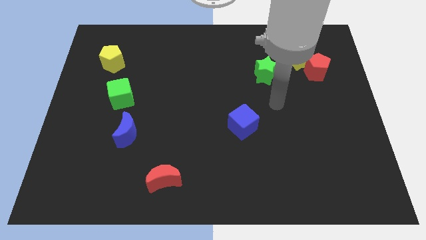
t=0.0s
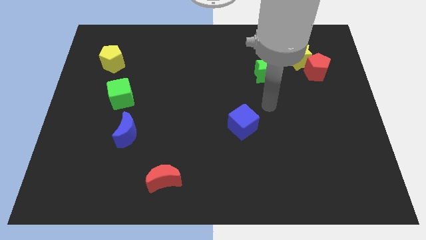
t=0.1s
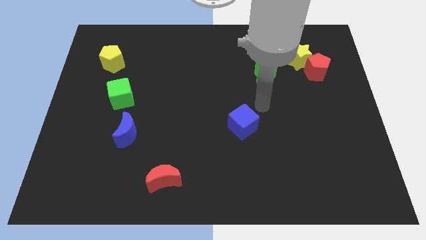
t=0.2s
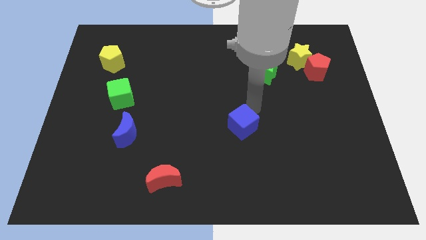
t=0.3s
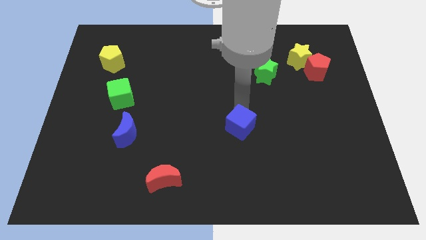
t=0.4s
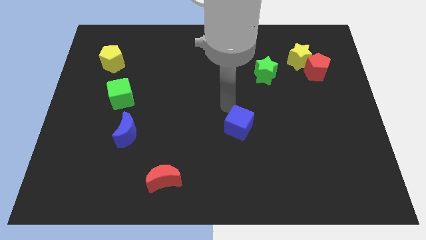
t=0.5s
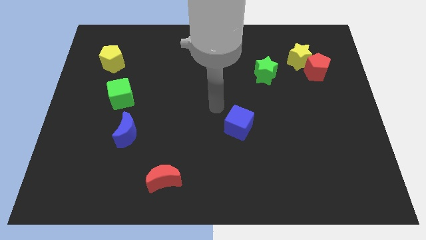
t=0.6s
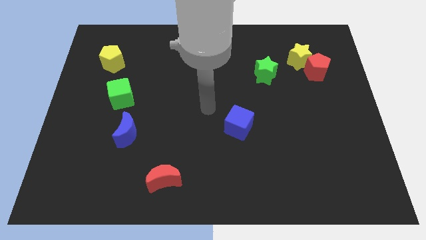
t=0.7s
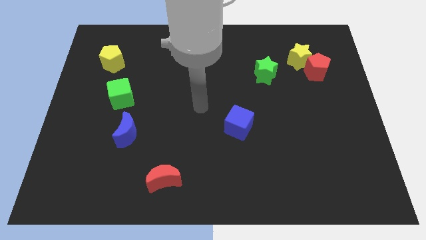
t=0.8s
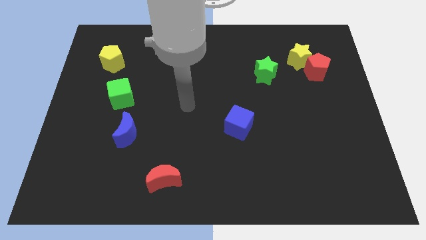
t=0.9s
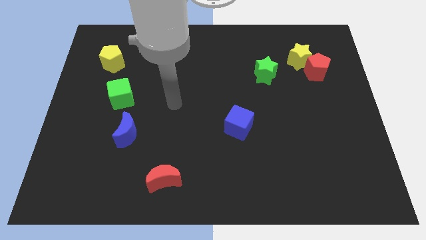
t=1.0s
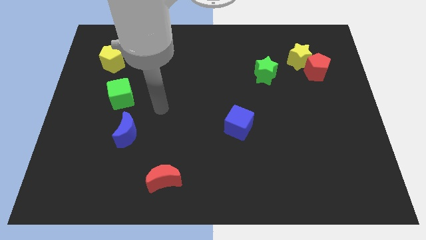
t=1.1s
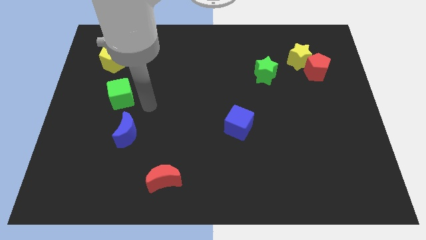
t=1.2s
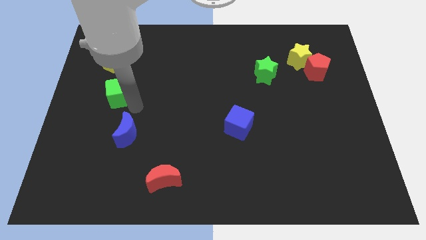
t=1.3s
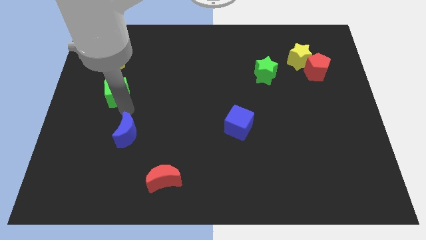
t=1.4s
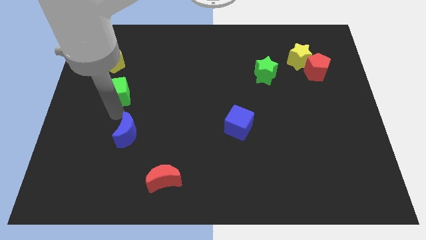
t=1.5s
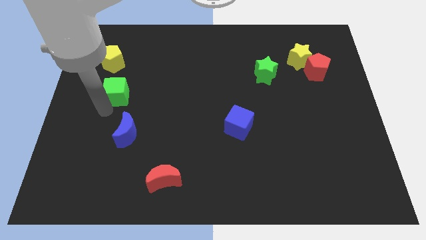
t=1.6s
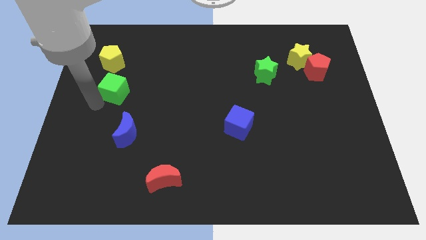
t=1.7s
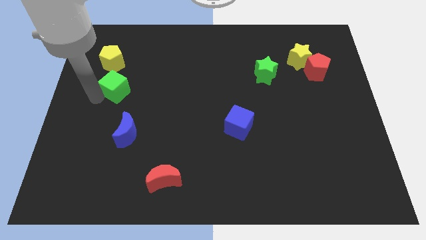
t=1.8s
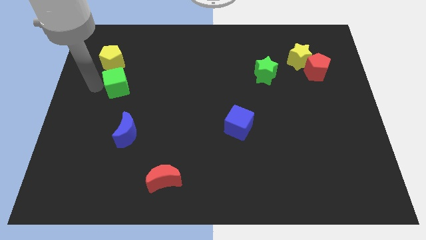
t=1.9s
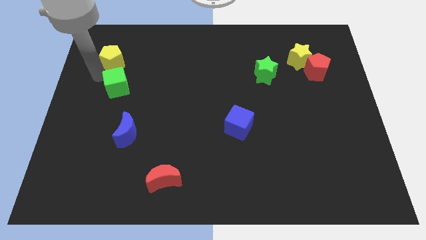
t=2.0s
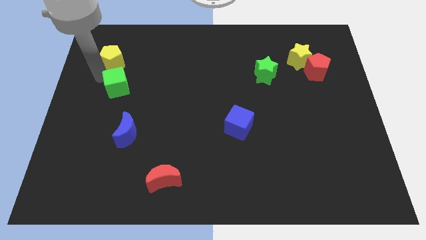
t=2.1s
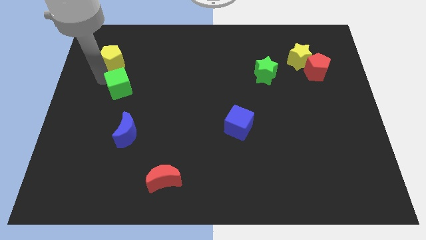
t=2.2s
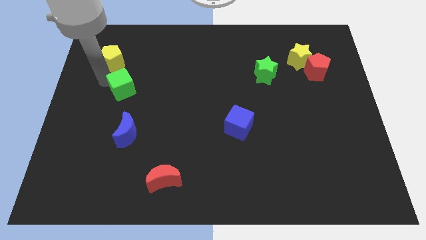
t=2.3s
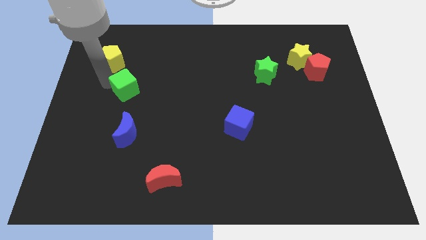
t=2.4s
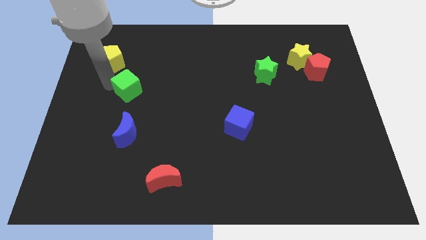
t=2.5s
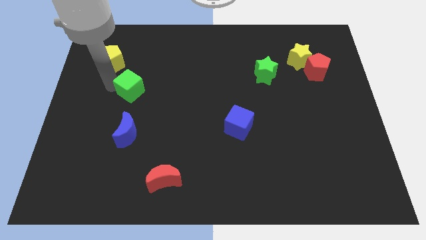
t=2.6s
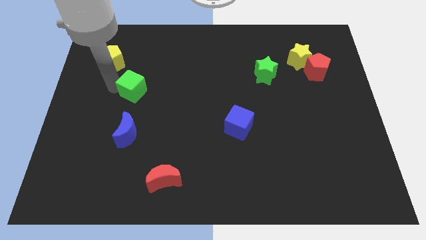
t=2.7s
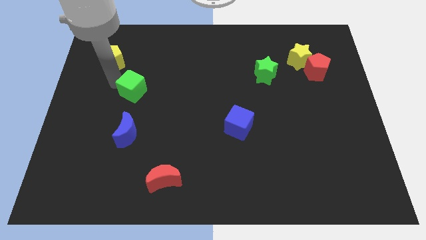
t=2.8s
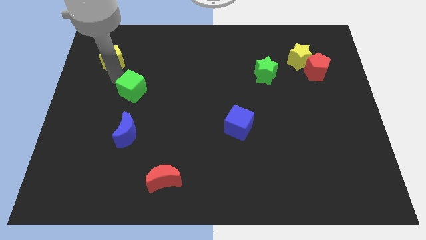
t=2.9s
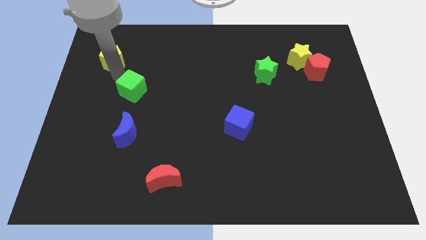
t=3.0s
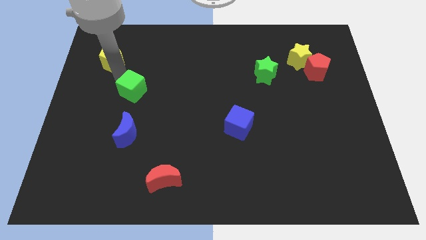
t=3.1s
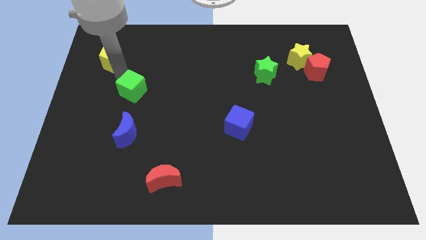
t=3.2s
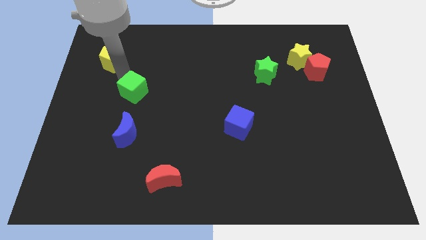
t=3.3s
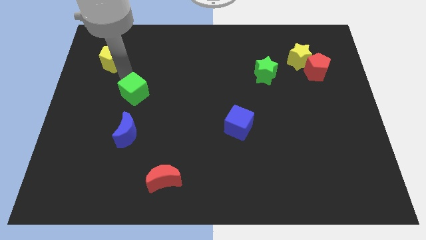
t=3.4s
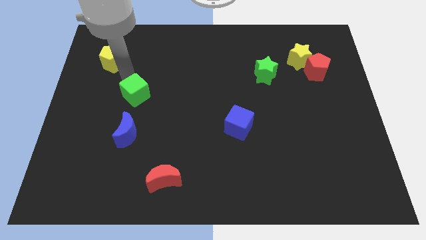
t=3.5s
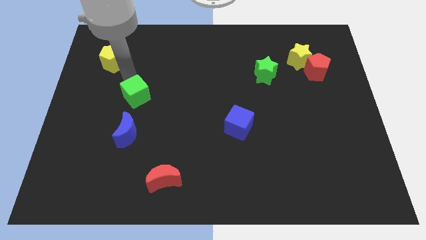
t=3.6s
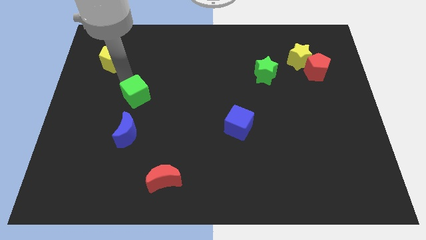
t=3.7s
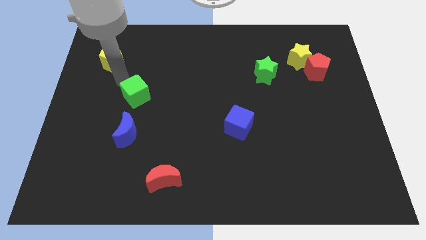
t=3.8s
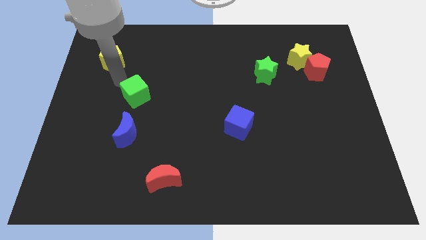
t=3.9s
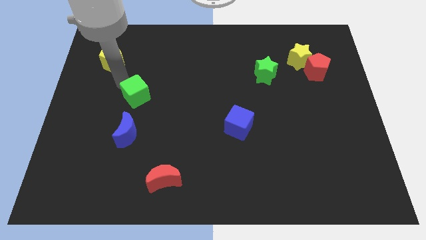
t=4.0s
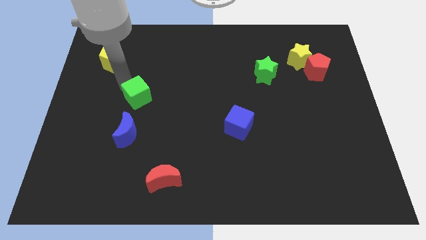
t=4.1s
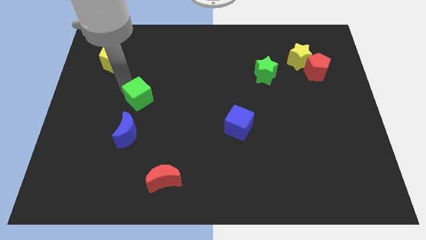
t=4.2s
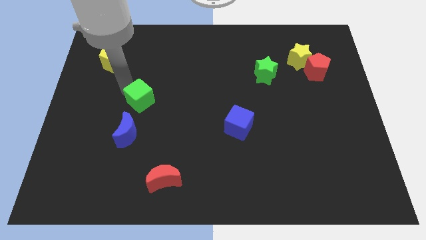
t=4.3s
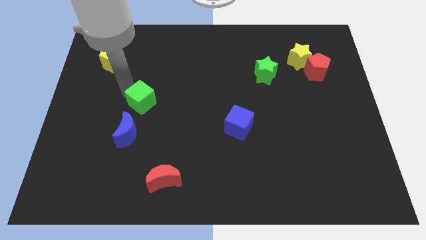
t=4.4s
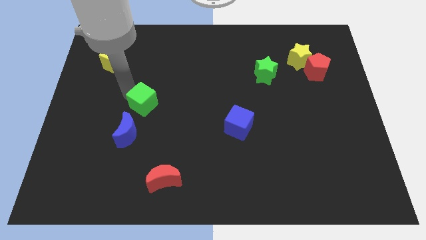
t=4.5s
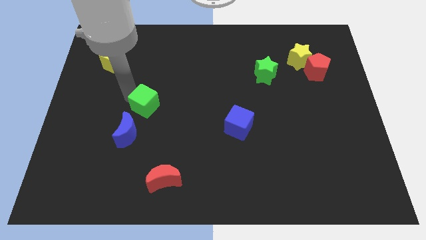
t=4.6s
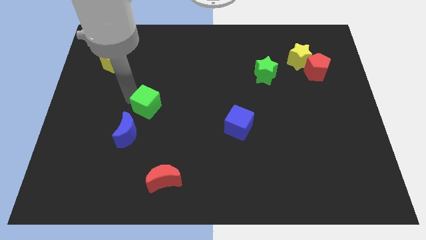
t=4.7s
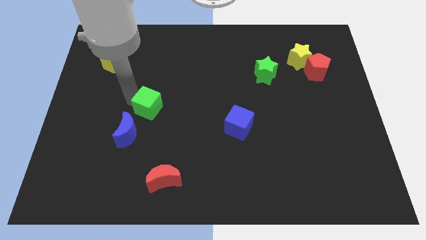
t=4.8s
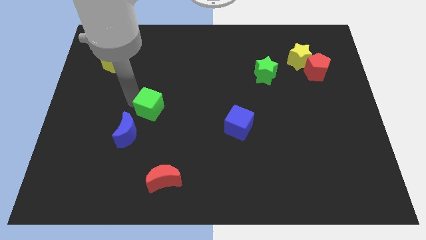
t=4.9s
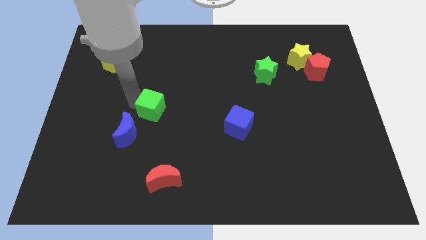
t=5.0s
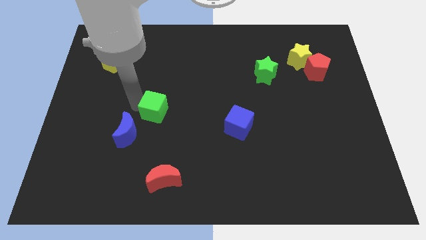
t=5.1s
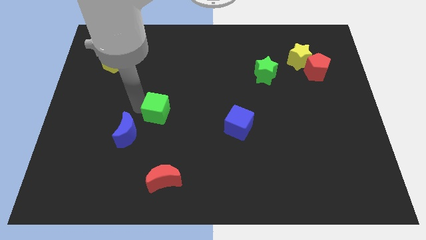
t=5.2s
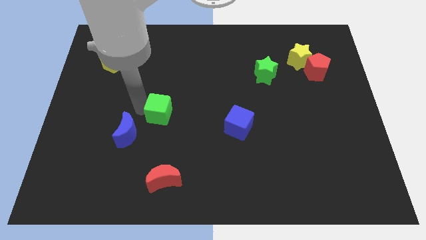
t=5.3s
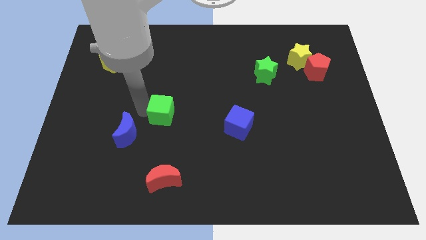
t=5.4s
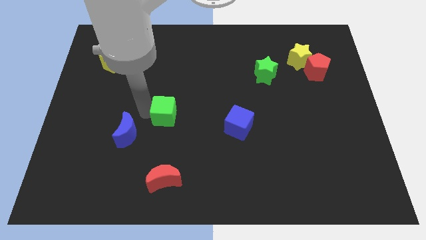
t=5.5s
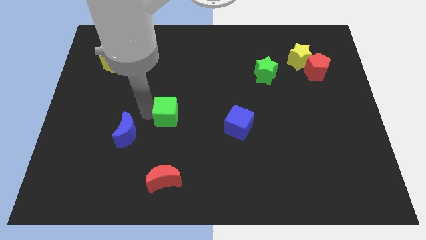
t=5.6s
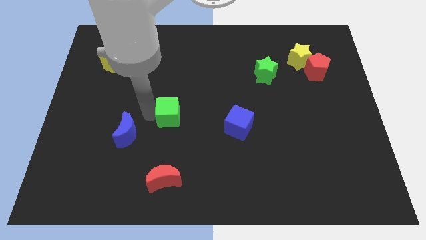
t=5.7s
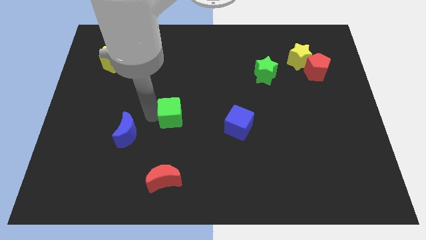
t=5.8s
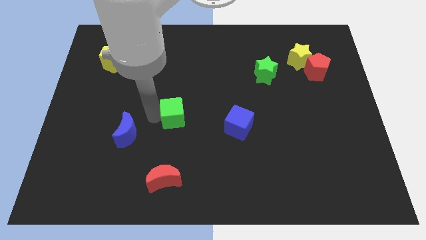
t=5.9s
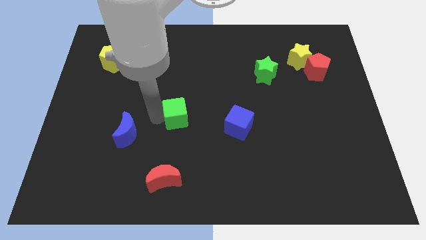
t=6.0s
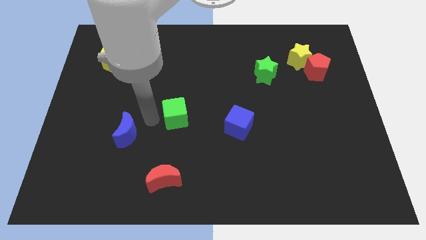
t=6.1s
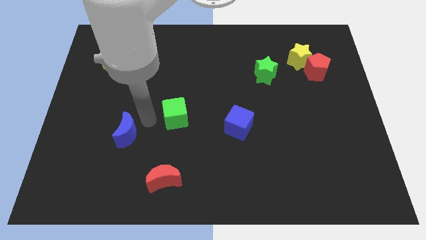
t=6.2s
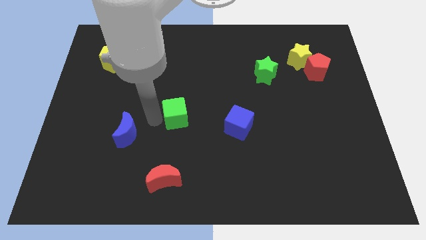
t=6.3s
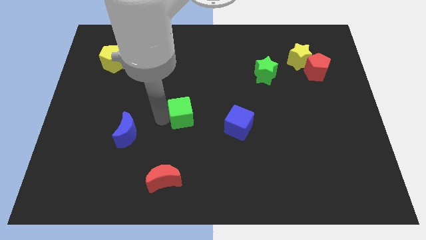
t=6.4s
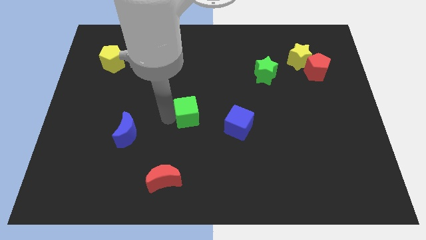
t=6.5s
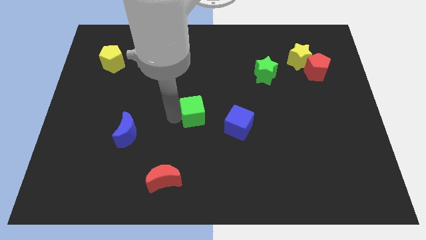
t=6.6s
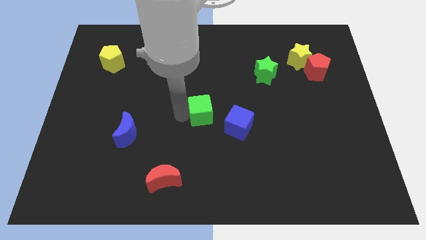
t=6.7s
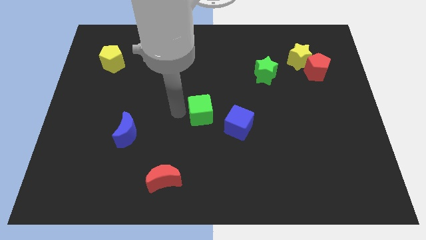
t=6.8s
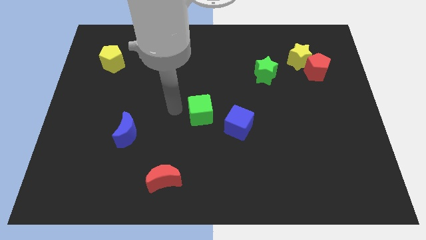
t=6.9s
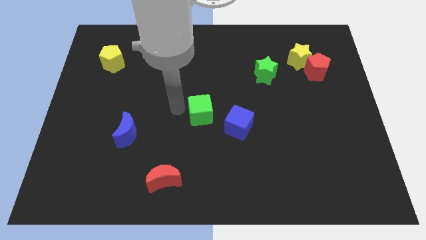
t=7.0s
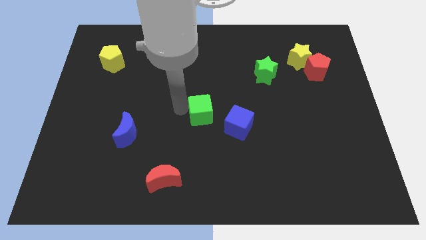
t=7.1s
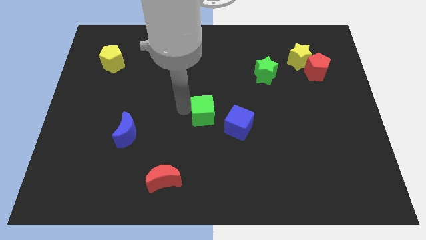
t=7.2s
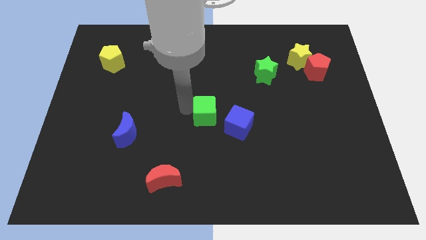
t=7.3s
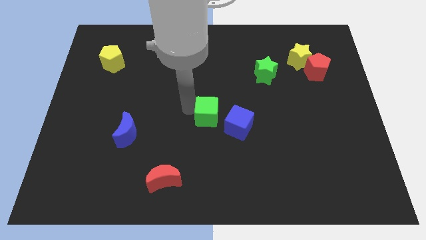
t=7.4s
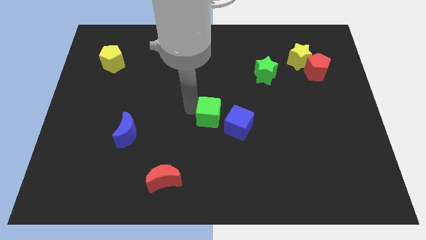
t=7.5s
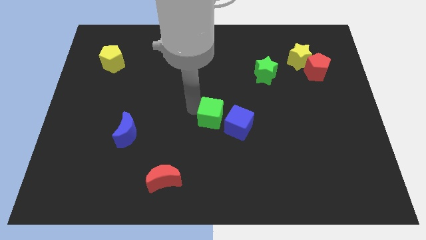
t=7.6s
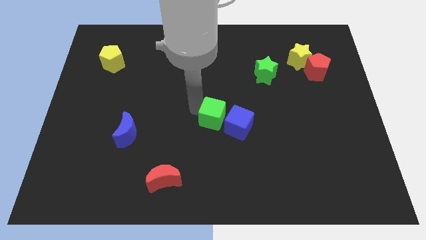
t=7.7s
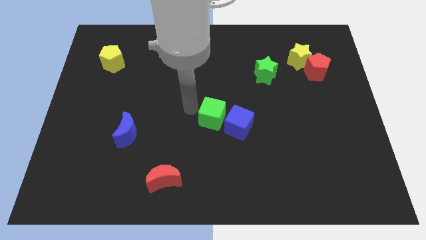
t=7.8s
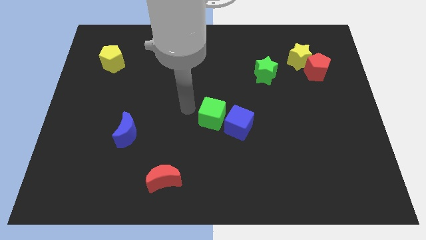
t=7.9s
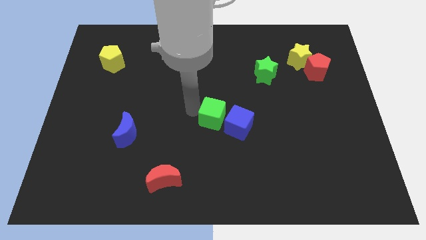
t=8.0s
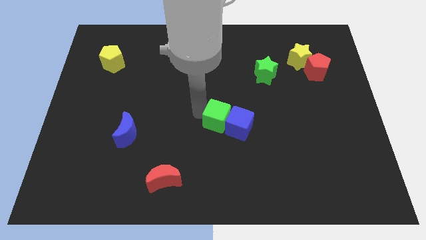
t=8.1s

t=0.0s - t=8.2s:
push the green cube close to the blue cube
